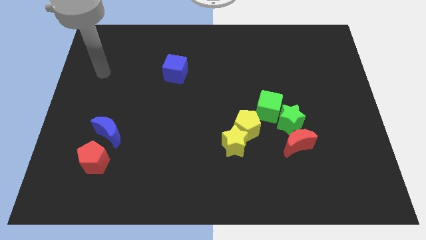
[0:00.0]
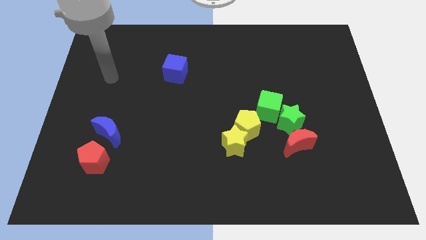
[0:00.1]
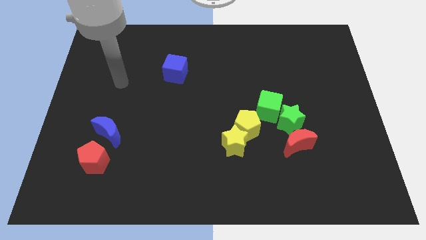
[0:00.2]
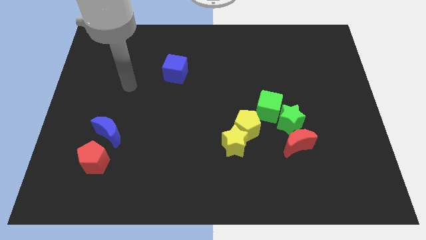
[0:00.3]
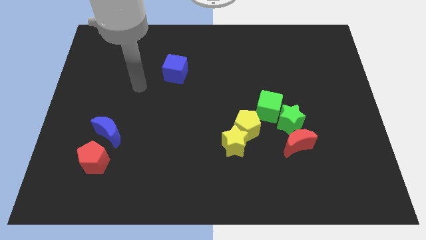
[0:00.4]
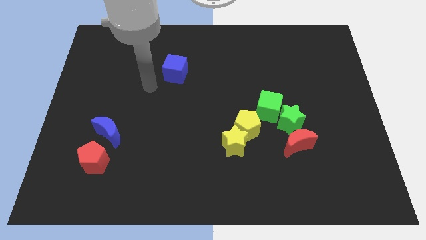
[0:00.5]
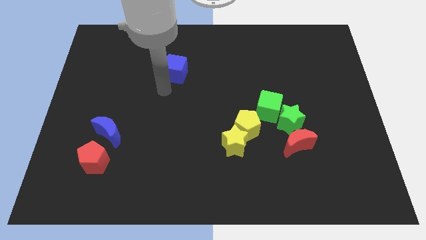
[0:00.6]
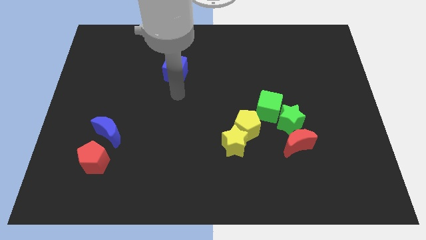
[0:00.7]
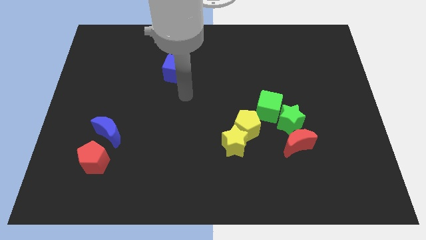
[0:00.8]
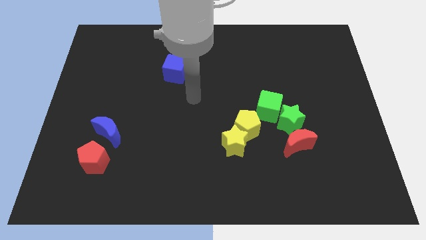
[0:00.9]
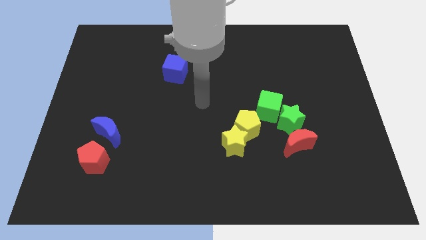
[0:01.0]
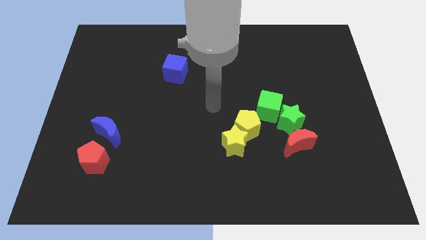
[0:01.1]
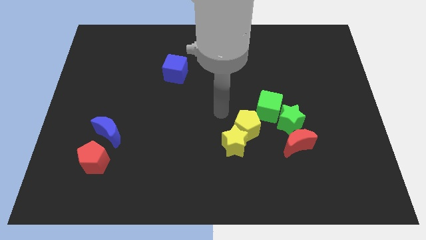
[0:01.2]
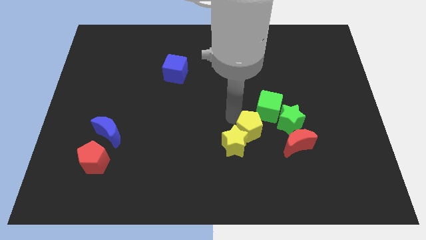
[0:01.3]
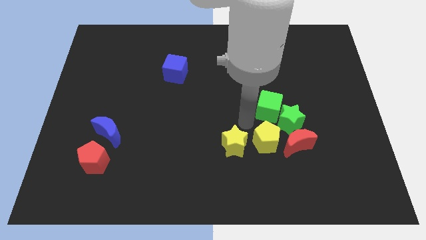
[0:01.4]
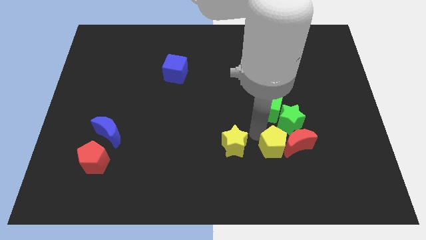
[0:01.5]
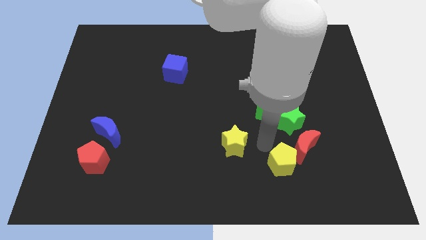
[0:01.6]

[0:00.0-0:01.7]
move the yellow star away from the yellow pentagon

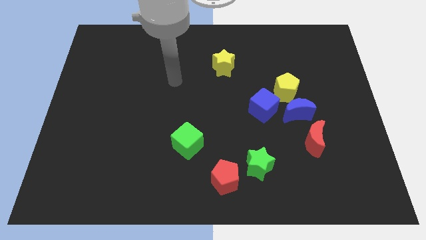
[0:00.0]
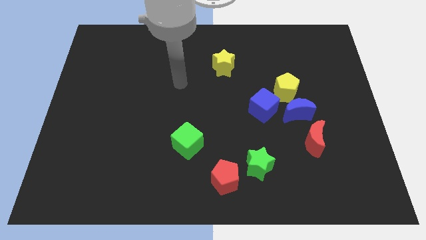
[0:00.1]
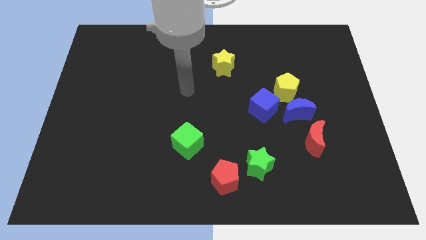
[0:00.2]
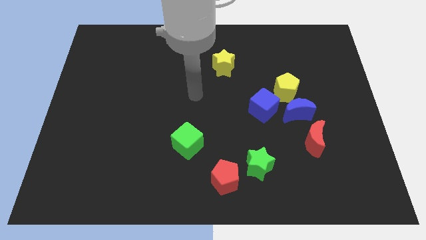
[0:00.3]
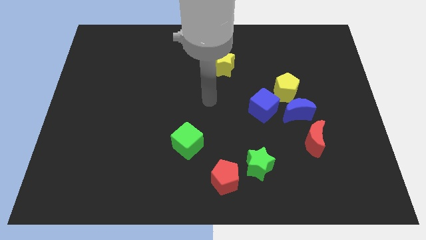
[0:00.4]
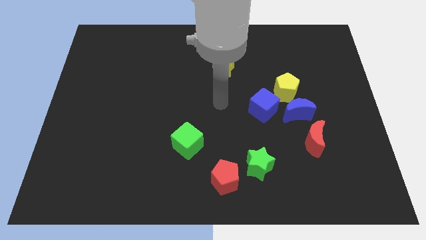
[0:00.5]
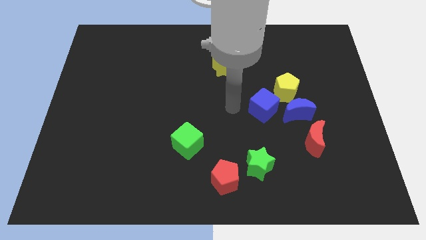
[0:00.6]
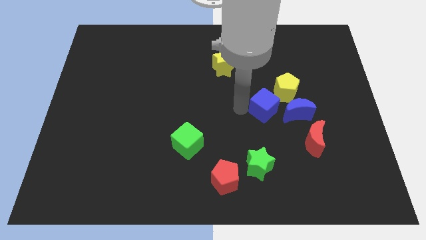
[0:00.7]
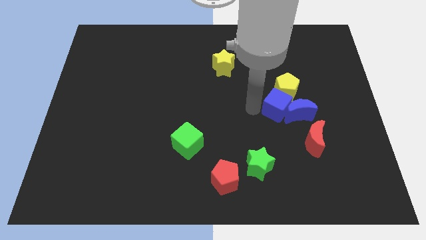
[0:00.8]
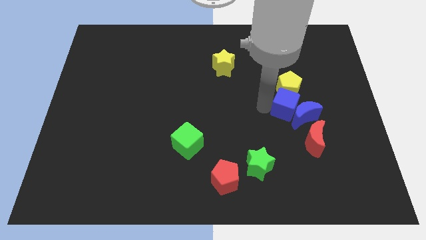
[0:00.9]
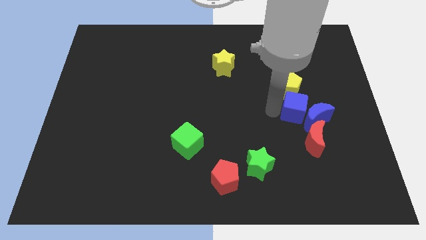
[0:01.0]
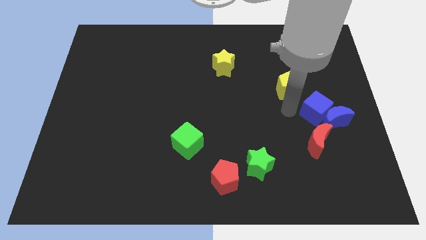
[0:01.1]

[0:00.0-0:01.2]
move the yellow pentagon away from the blue moon and blue cube

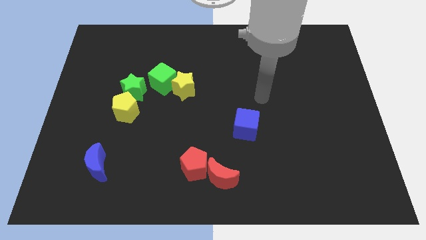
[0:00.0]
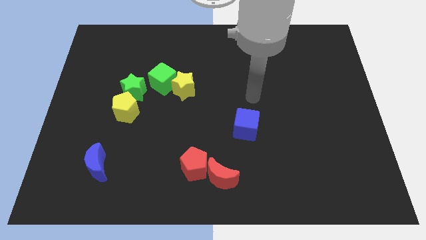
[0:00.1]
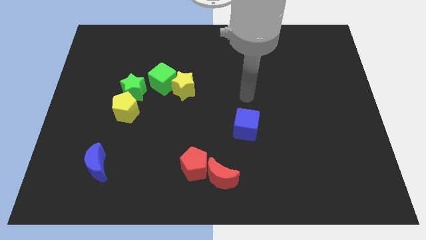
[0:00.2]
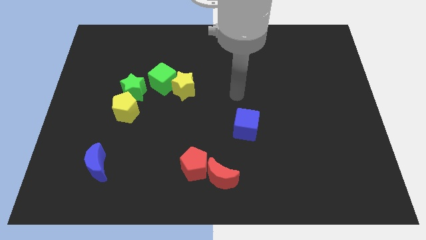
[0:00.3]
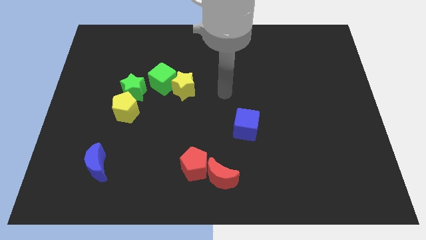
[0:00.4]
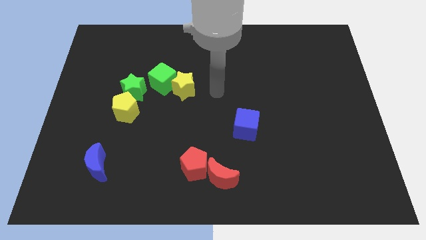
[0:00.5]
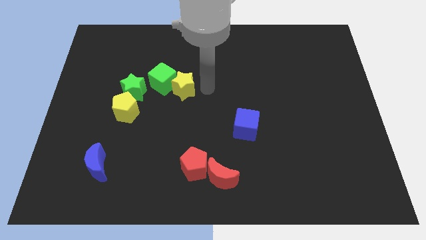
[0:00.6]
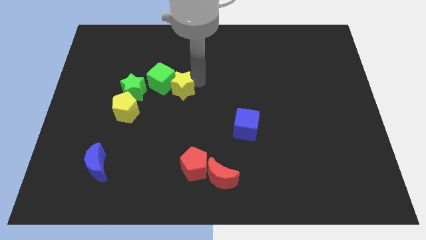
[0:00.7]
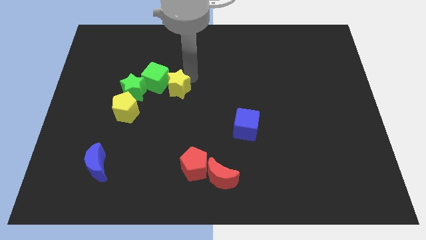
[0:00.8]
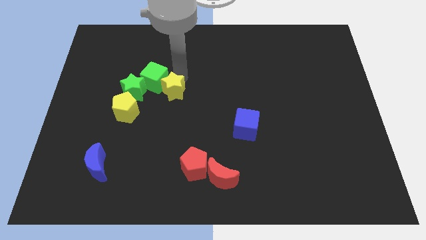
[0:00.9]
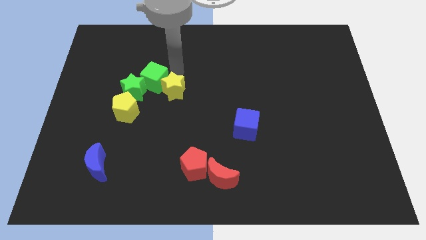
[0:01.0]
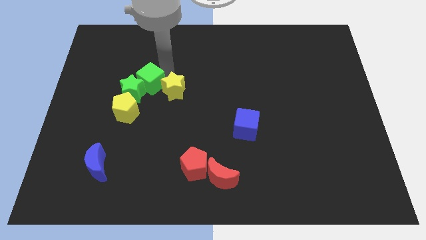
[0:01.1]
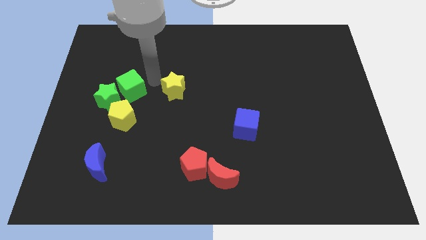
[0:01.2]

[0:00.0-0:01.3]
separate the yellow star from the green cube

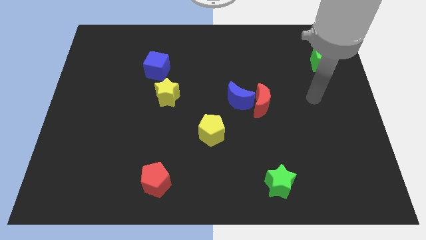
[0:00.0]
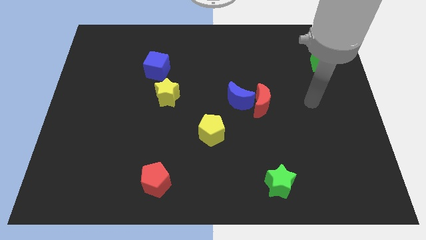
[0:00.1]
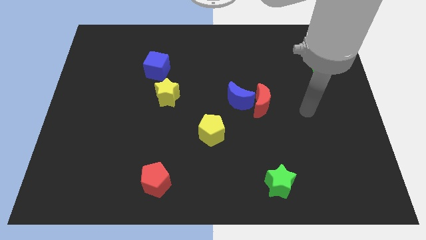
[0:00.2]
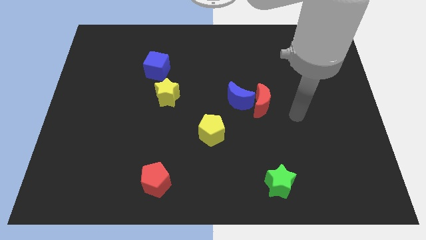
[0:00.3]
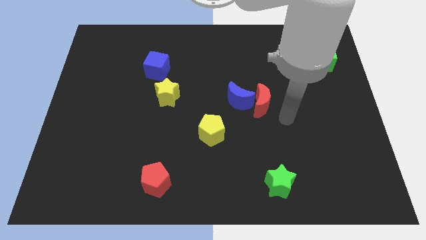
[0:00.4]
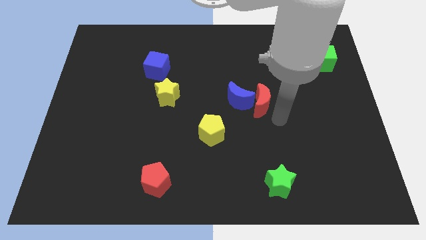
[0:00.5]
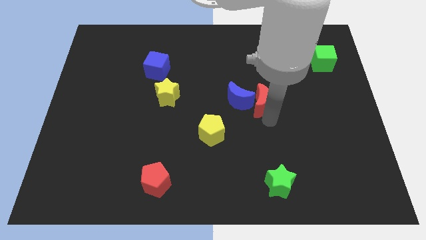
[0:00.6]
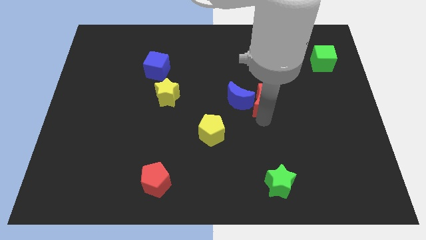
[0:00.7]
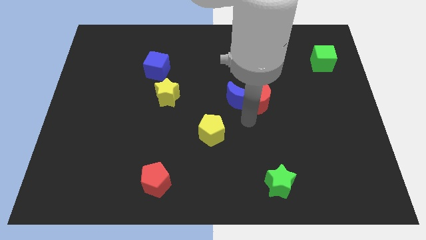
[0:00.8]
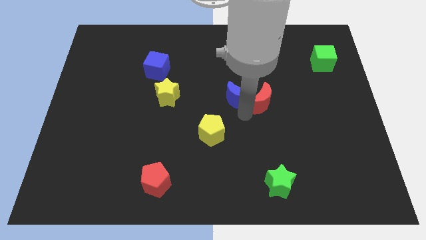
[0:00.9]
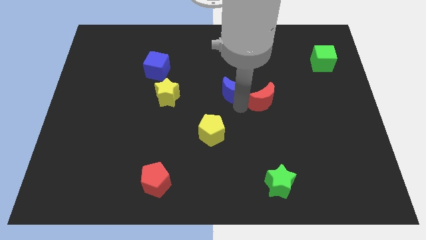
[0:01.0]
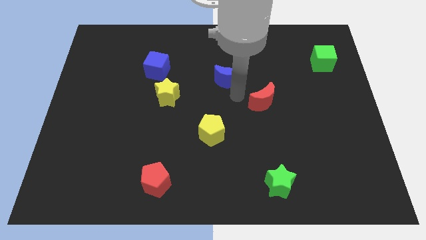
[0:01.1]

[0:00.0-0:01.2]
pull the red moon apart from the blue moon

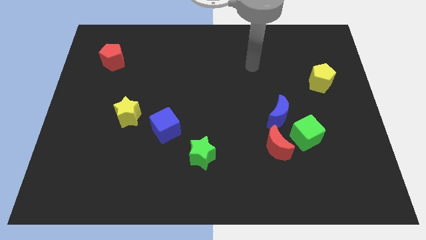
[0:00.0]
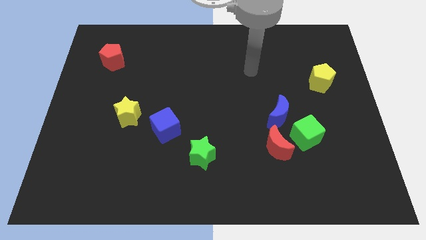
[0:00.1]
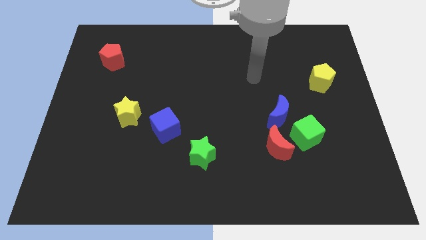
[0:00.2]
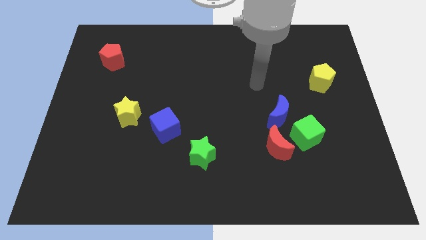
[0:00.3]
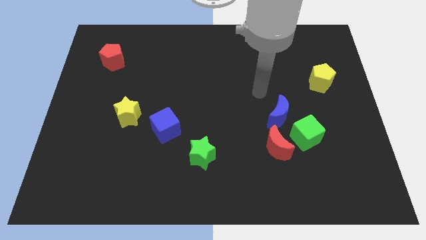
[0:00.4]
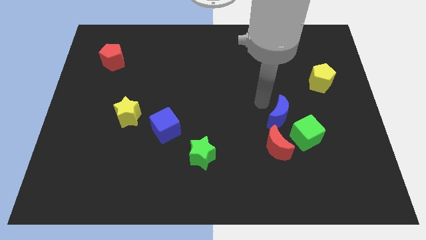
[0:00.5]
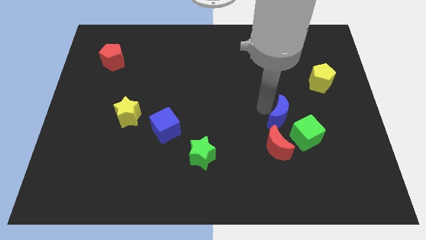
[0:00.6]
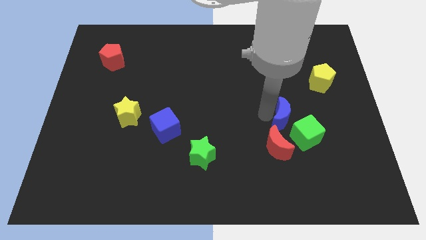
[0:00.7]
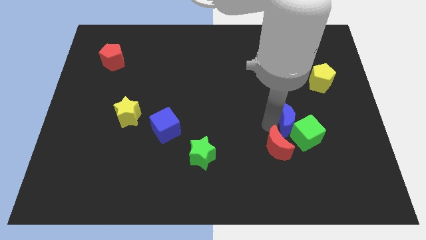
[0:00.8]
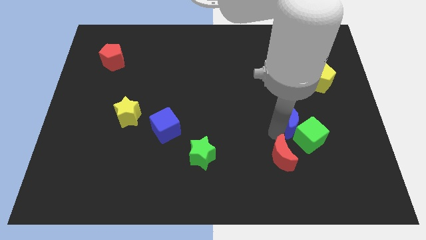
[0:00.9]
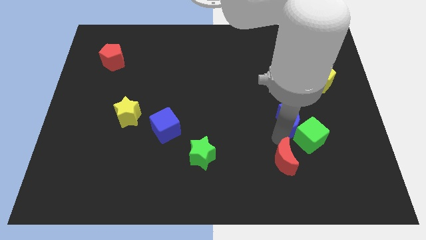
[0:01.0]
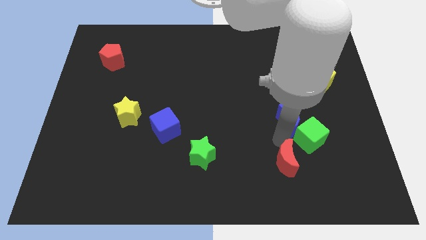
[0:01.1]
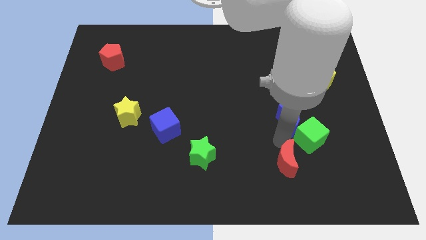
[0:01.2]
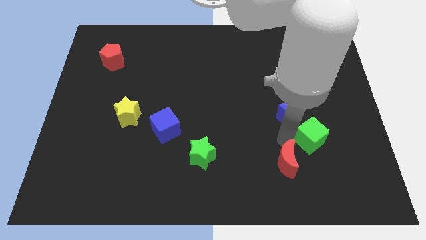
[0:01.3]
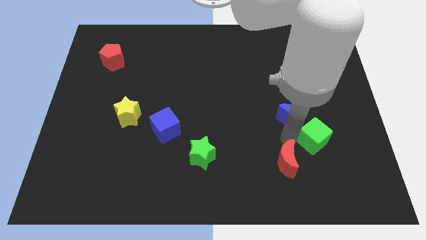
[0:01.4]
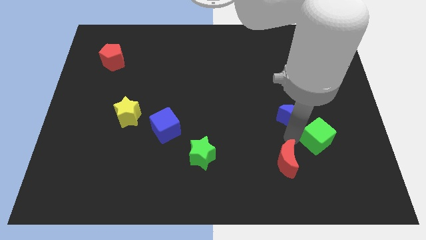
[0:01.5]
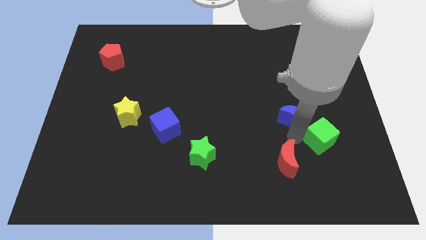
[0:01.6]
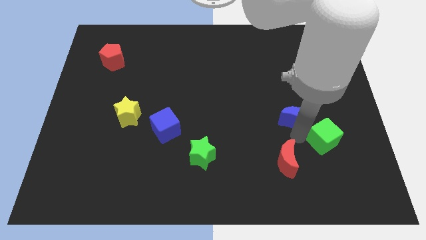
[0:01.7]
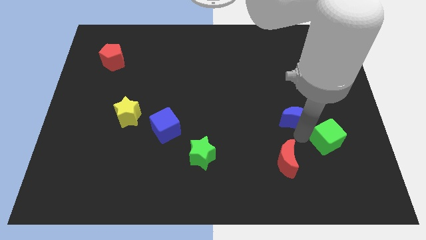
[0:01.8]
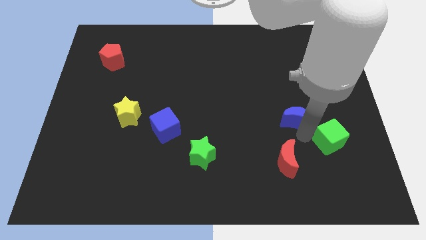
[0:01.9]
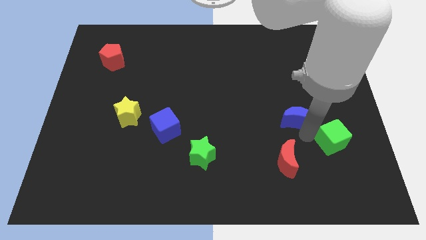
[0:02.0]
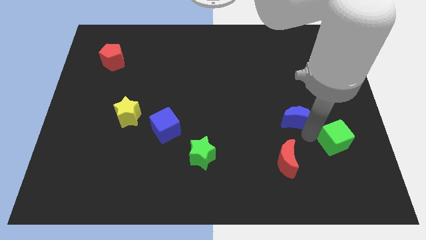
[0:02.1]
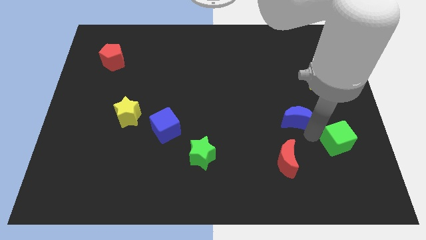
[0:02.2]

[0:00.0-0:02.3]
move the green cube away from the red moon and blue moon

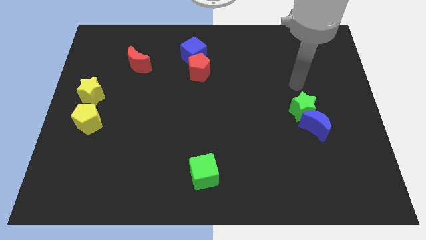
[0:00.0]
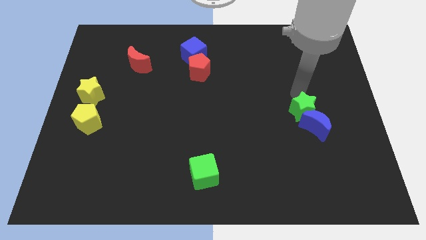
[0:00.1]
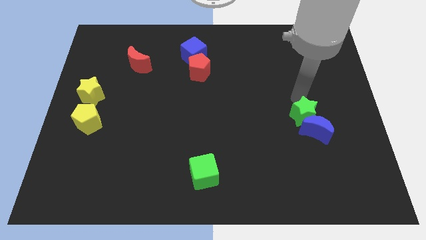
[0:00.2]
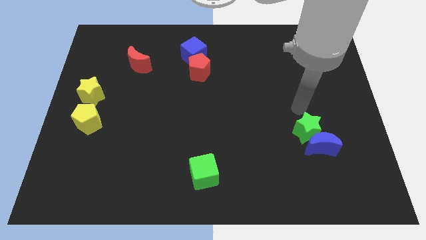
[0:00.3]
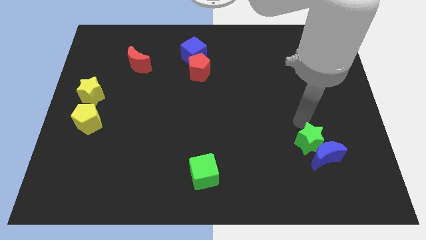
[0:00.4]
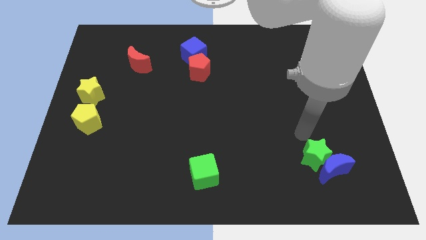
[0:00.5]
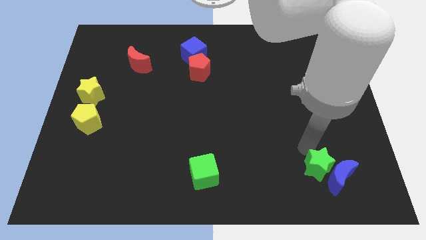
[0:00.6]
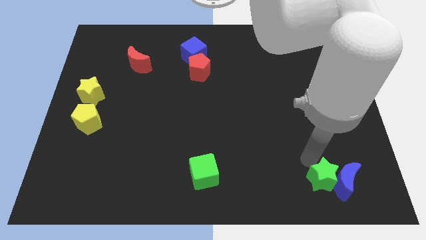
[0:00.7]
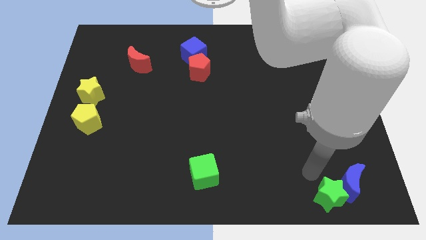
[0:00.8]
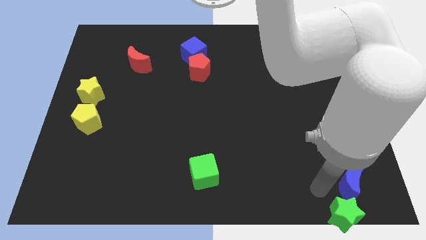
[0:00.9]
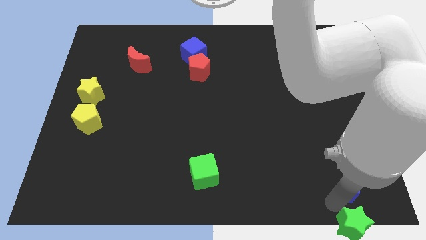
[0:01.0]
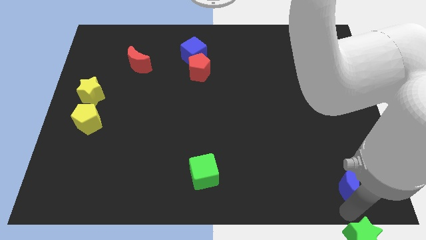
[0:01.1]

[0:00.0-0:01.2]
move the blue moon away from the green star

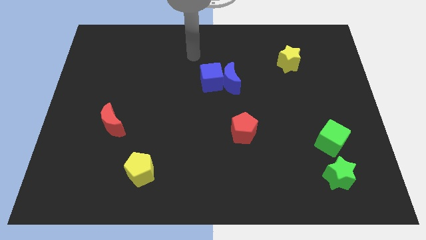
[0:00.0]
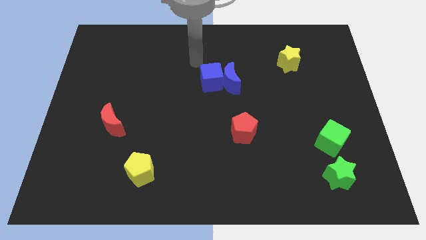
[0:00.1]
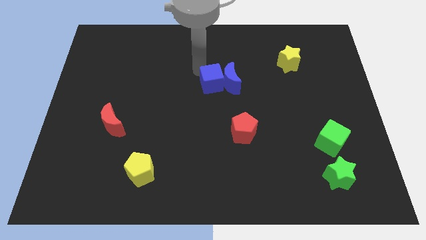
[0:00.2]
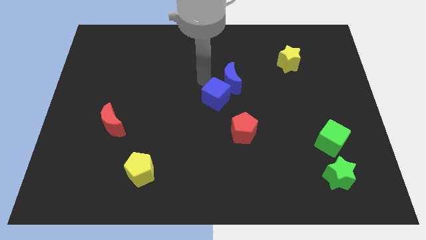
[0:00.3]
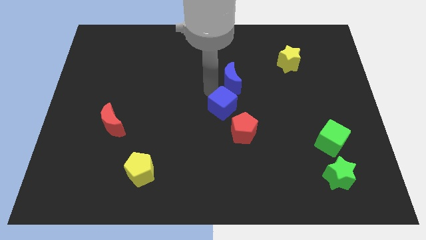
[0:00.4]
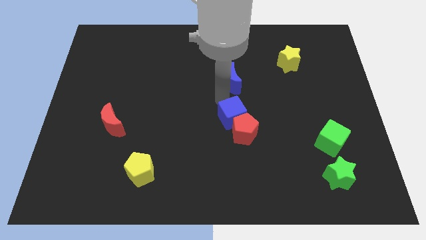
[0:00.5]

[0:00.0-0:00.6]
move the blue moon away from the blue cube
